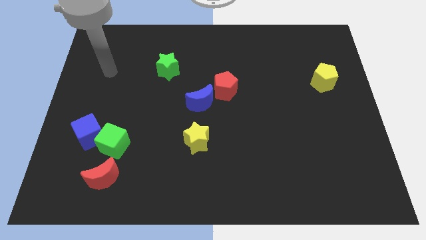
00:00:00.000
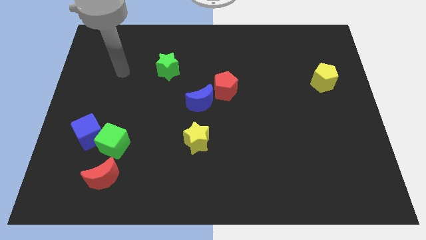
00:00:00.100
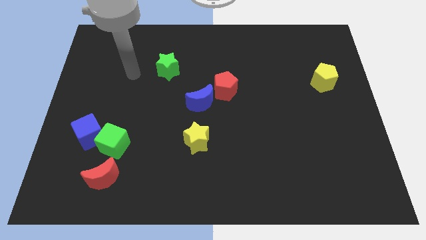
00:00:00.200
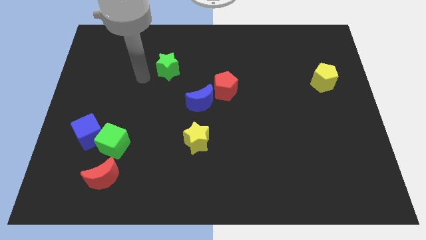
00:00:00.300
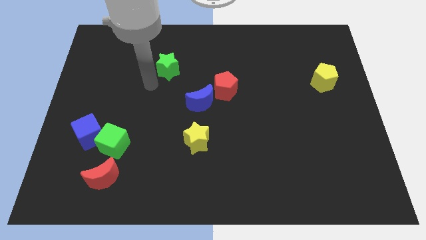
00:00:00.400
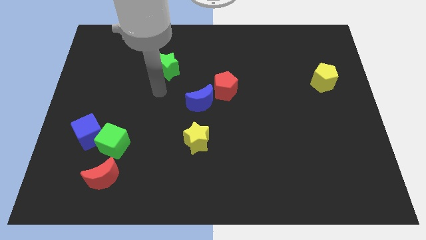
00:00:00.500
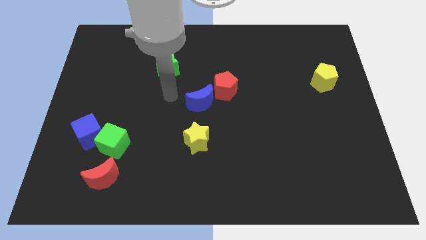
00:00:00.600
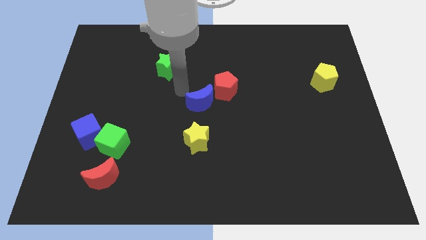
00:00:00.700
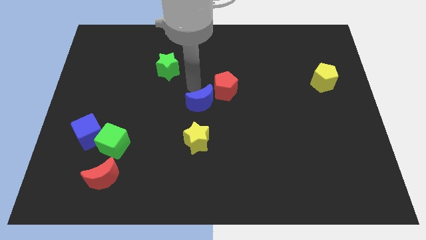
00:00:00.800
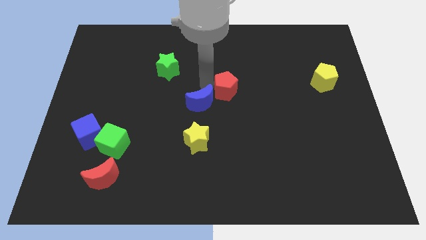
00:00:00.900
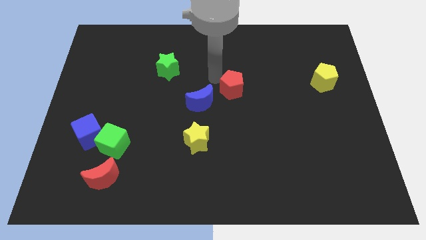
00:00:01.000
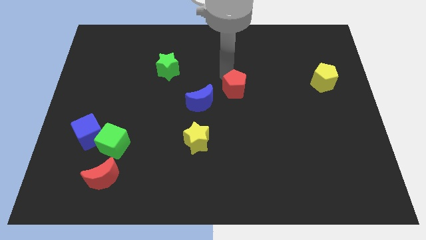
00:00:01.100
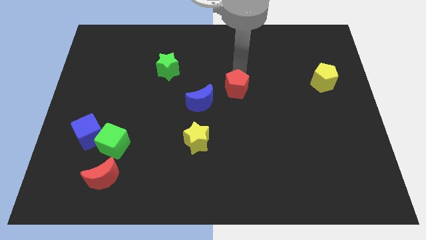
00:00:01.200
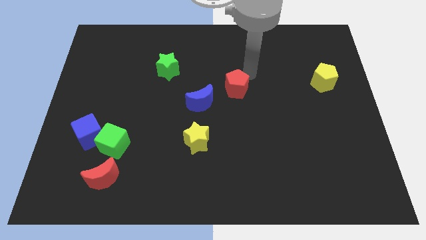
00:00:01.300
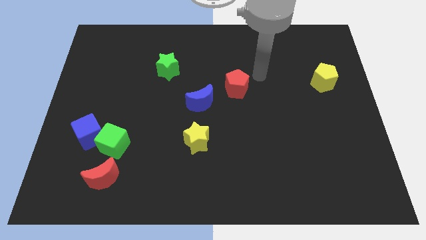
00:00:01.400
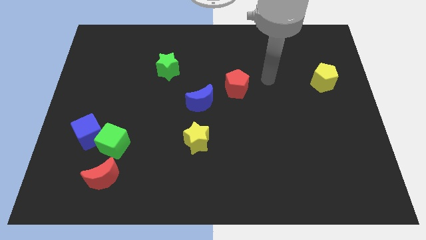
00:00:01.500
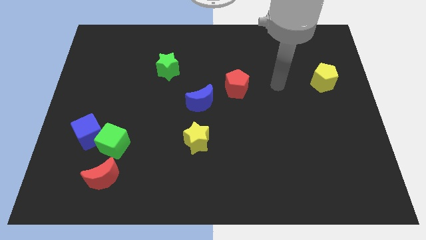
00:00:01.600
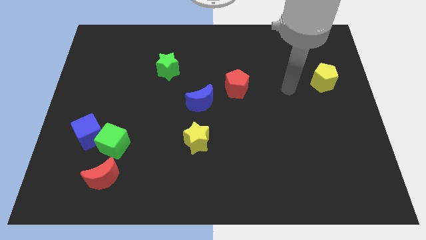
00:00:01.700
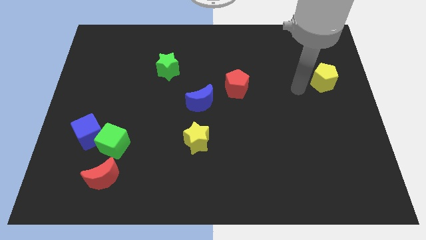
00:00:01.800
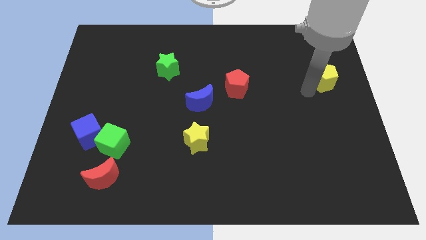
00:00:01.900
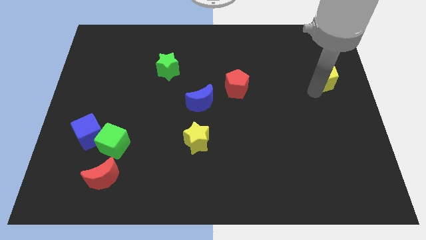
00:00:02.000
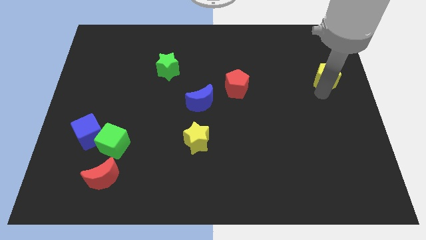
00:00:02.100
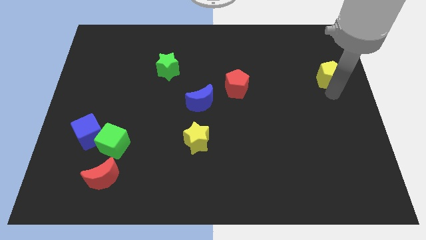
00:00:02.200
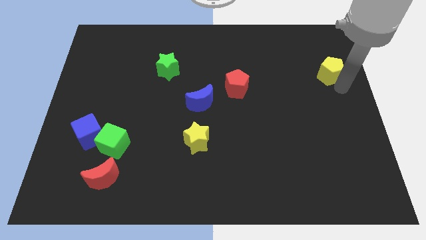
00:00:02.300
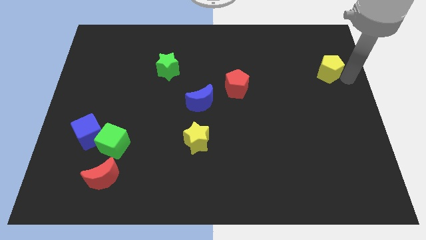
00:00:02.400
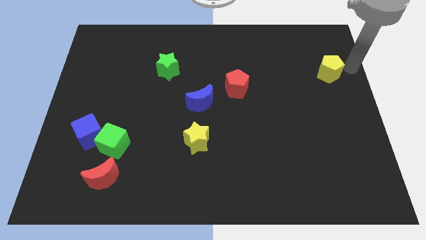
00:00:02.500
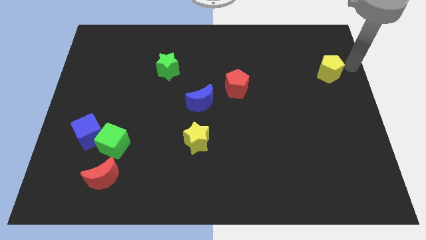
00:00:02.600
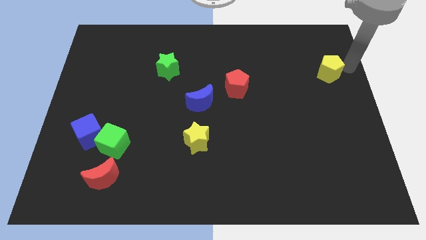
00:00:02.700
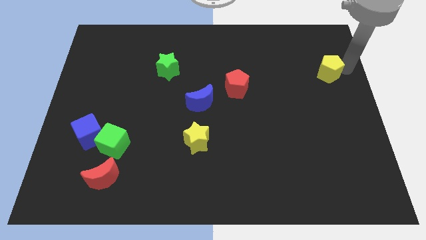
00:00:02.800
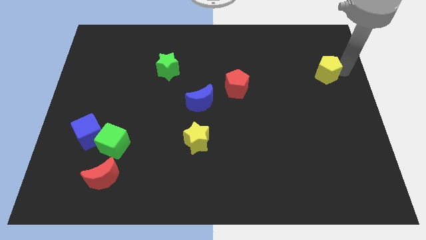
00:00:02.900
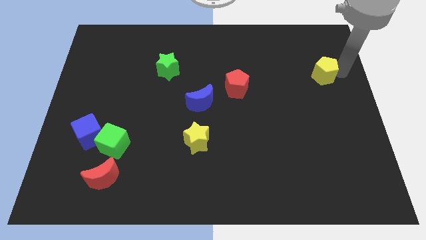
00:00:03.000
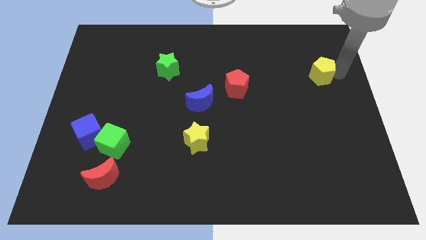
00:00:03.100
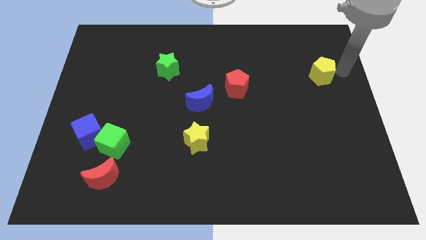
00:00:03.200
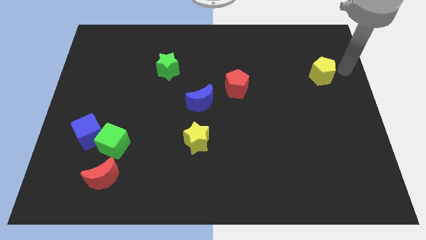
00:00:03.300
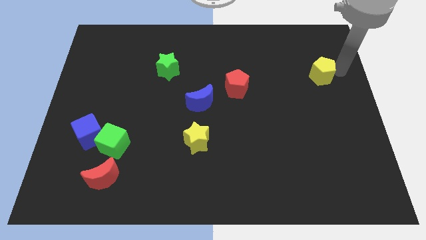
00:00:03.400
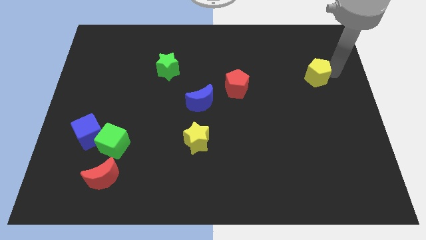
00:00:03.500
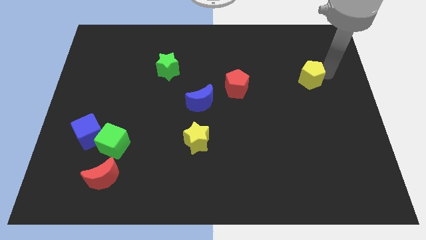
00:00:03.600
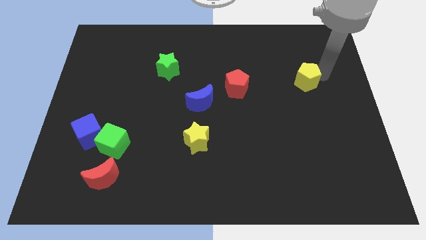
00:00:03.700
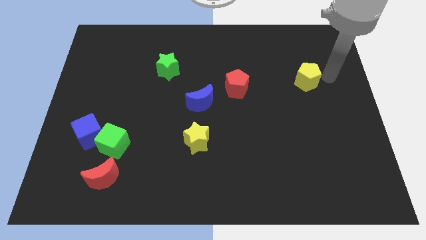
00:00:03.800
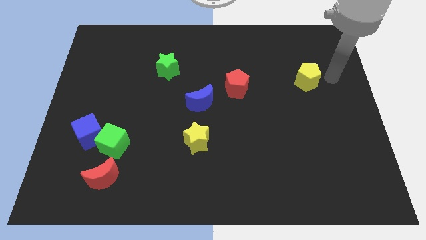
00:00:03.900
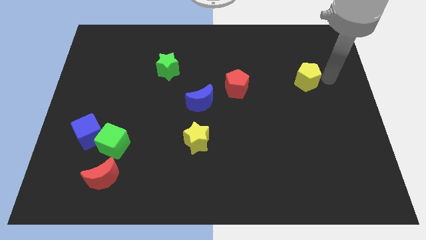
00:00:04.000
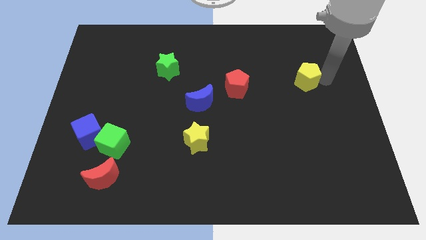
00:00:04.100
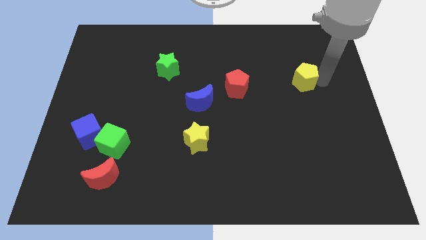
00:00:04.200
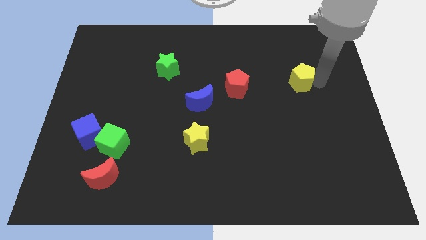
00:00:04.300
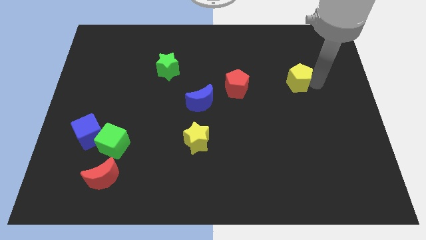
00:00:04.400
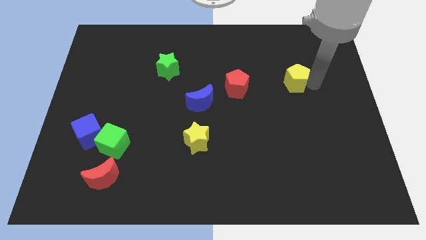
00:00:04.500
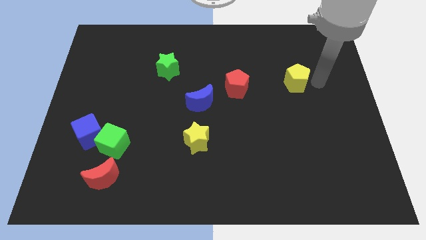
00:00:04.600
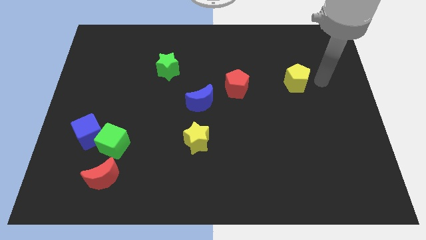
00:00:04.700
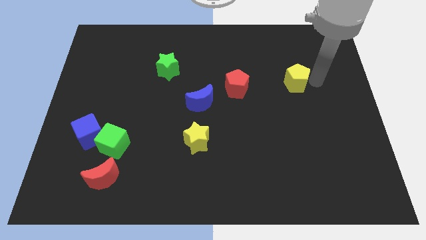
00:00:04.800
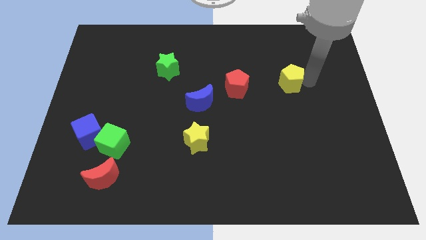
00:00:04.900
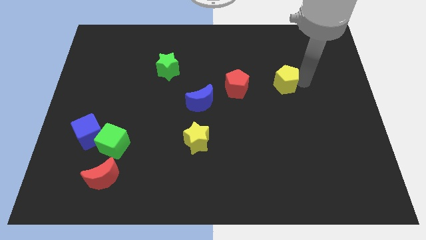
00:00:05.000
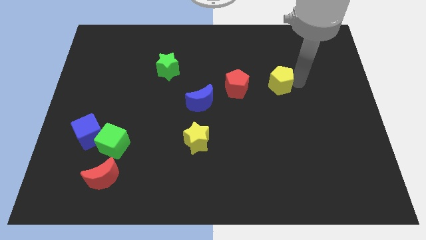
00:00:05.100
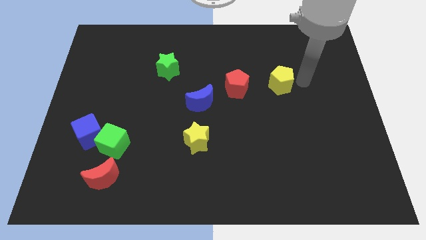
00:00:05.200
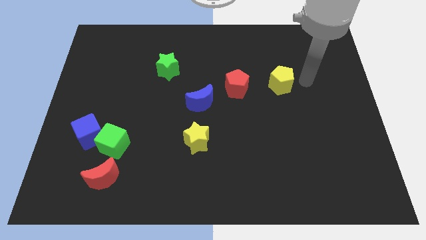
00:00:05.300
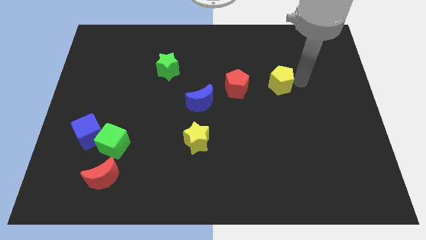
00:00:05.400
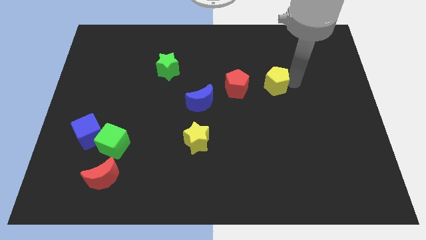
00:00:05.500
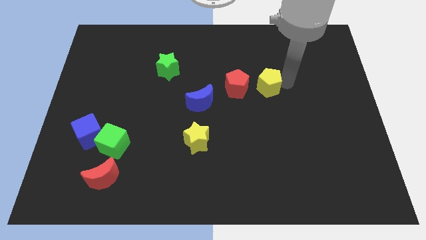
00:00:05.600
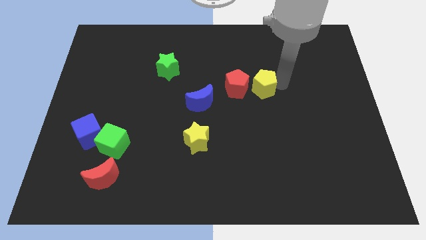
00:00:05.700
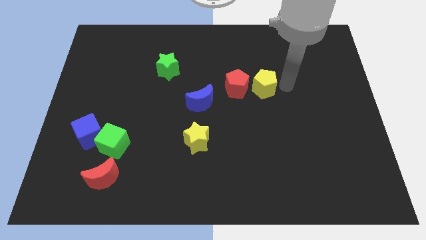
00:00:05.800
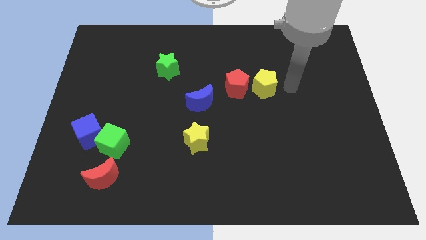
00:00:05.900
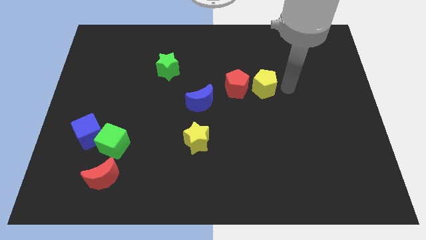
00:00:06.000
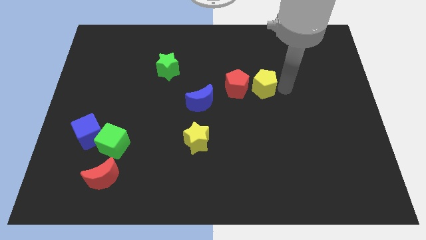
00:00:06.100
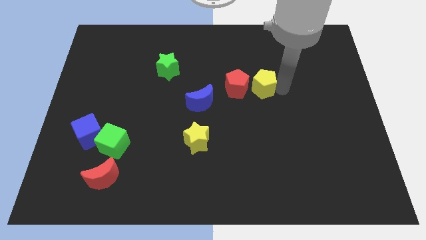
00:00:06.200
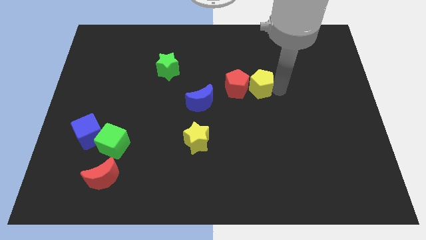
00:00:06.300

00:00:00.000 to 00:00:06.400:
slide the yellow pentagon to the red pentagon

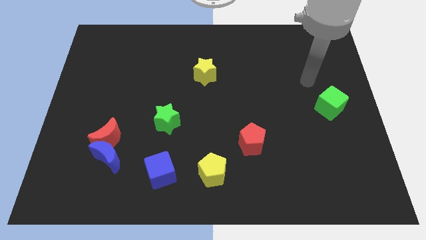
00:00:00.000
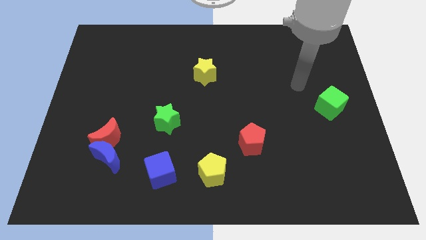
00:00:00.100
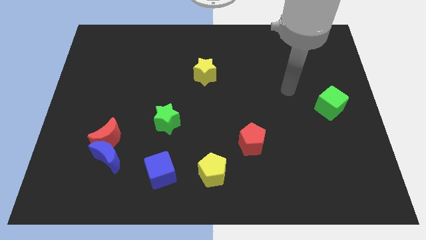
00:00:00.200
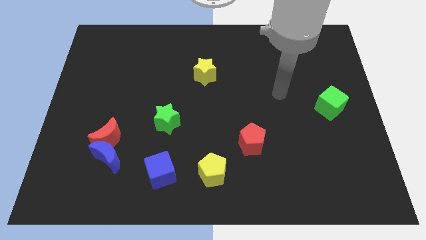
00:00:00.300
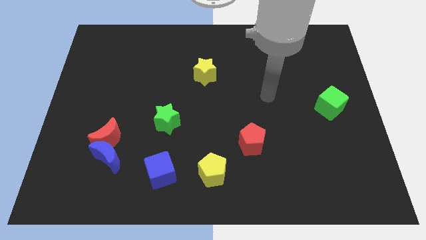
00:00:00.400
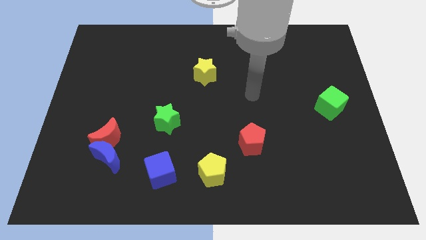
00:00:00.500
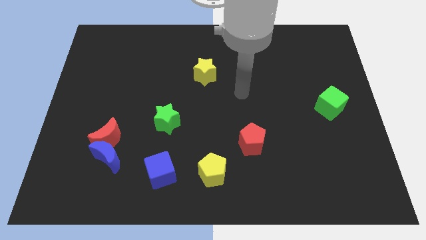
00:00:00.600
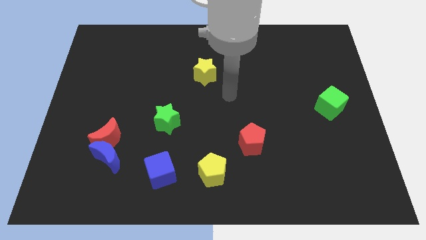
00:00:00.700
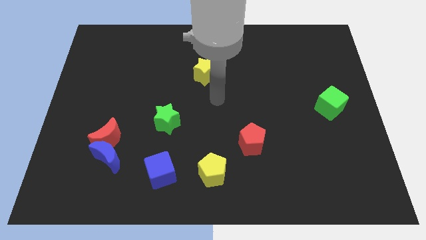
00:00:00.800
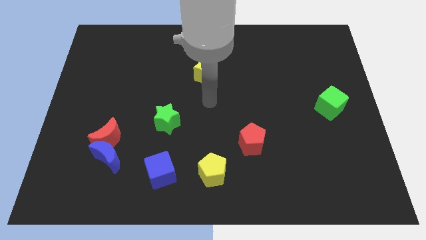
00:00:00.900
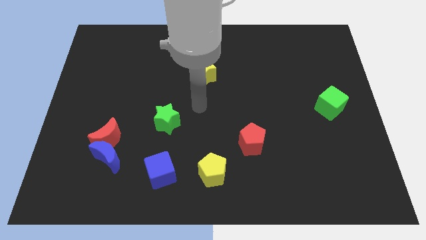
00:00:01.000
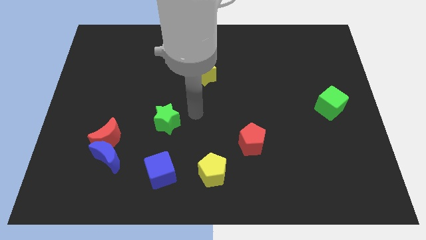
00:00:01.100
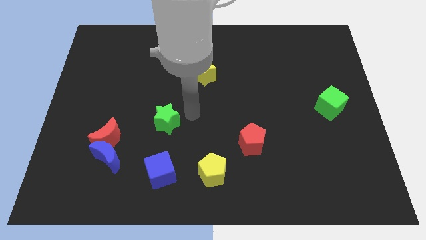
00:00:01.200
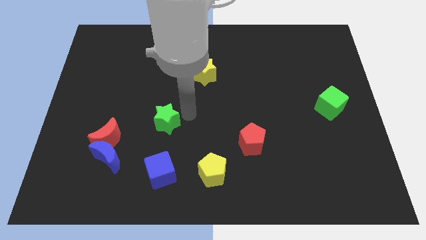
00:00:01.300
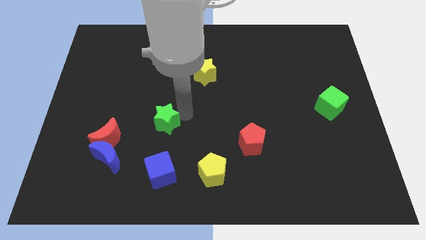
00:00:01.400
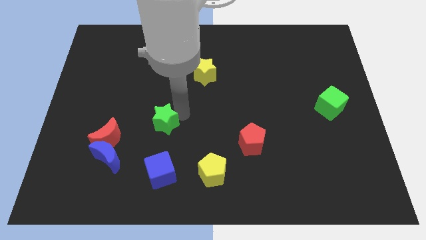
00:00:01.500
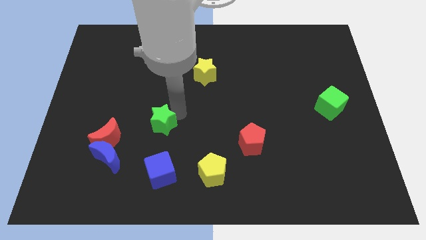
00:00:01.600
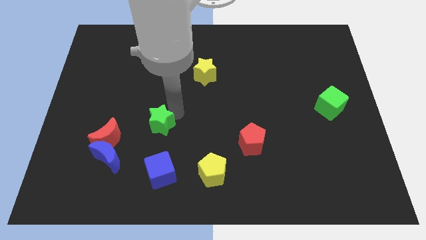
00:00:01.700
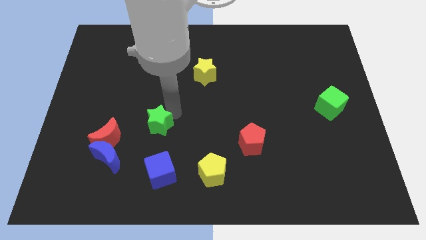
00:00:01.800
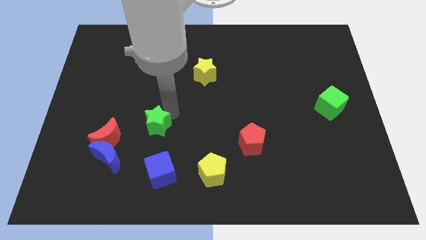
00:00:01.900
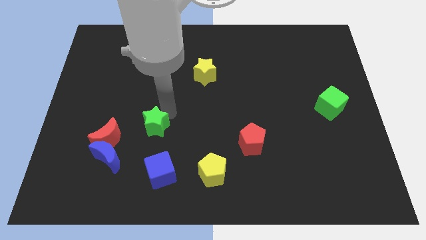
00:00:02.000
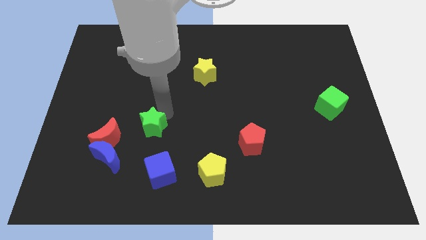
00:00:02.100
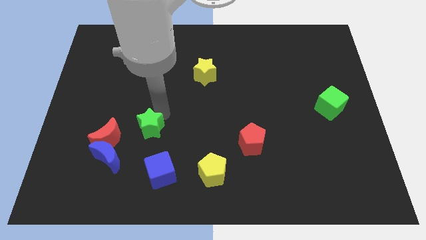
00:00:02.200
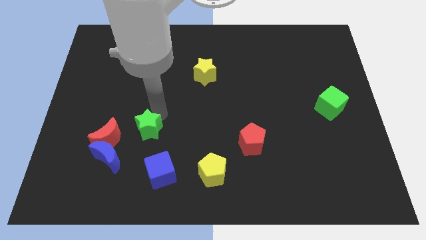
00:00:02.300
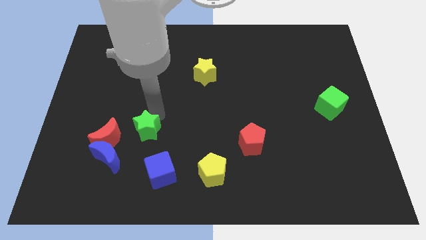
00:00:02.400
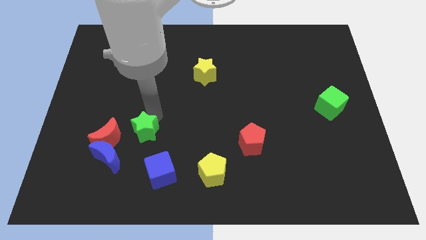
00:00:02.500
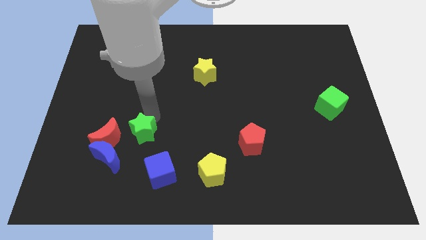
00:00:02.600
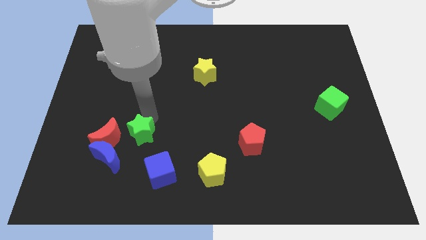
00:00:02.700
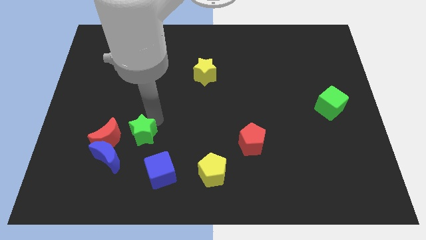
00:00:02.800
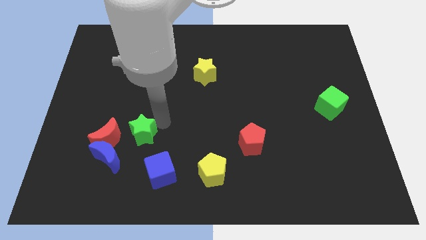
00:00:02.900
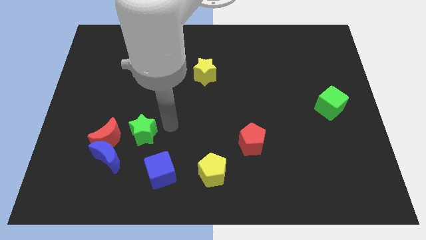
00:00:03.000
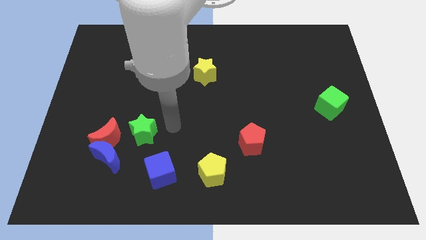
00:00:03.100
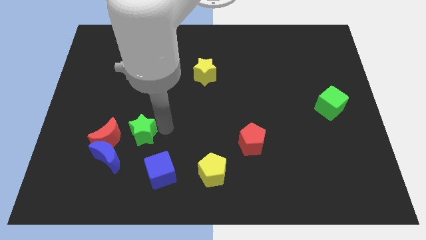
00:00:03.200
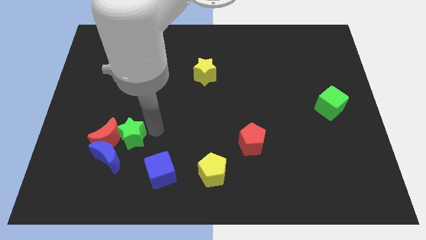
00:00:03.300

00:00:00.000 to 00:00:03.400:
push the green star next to the red moon
